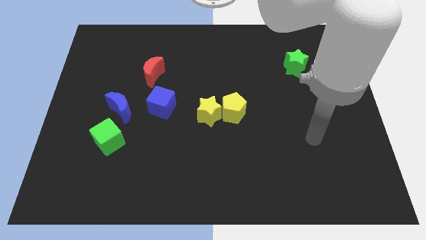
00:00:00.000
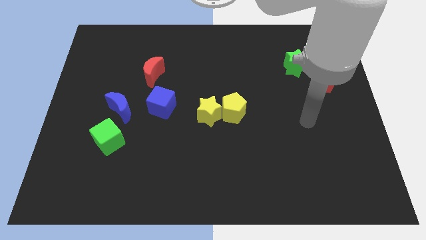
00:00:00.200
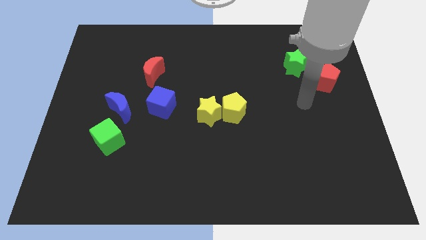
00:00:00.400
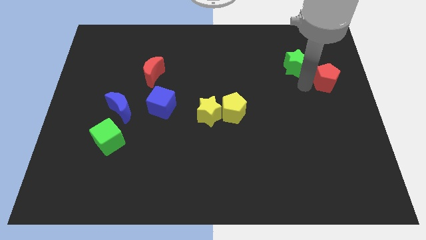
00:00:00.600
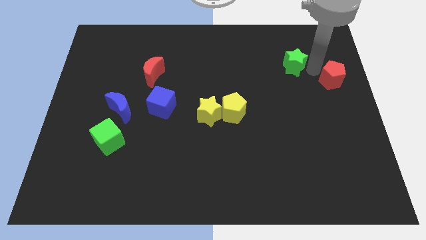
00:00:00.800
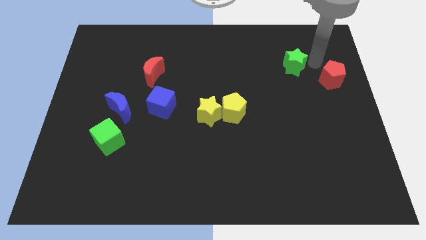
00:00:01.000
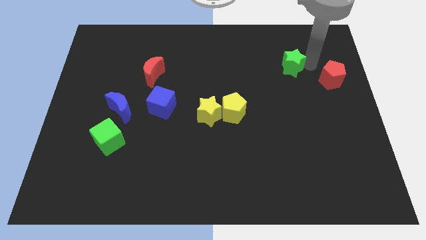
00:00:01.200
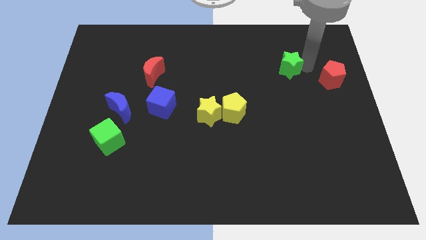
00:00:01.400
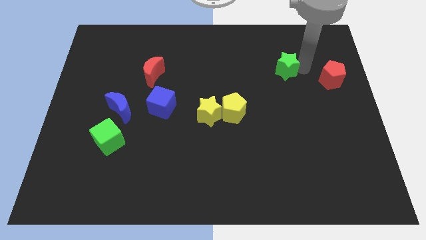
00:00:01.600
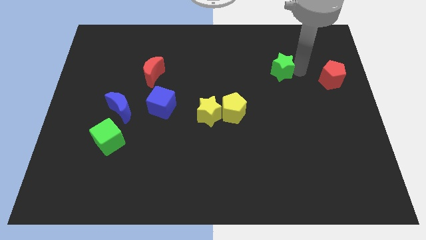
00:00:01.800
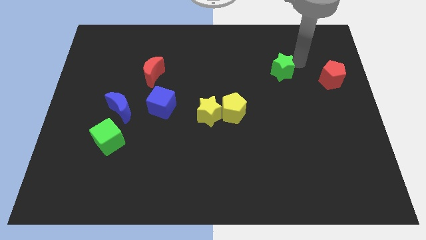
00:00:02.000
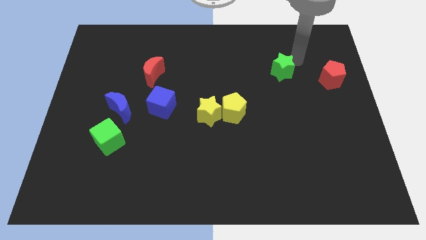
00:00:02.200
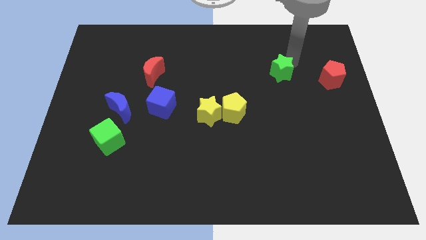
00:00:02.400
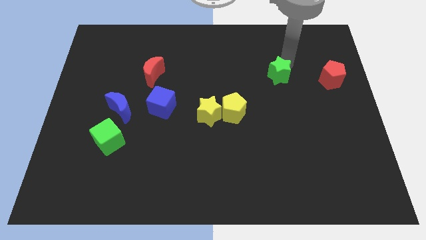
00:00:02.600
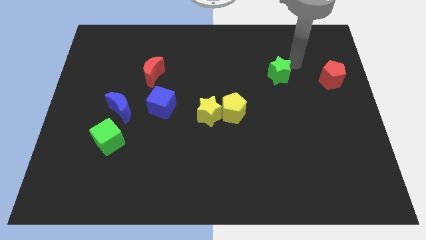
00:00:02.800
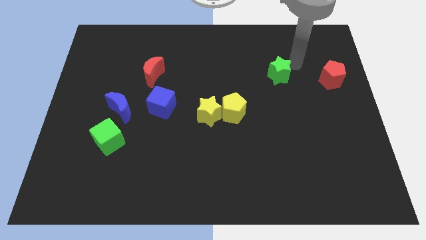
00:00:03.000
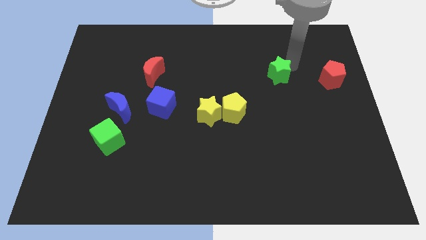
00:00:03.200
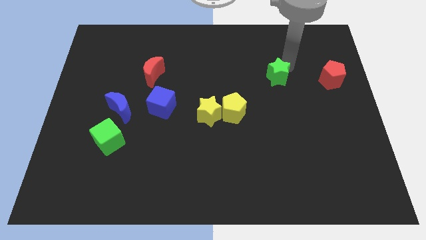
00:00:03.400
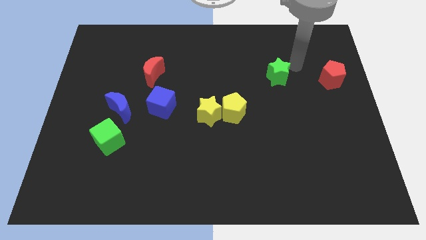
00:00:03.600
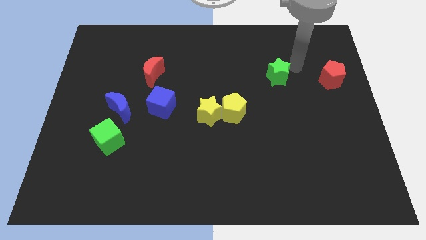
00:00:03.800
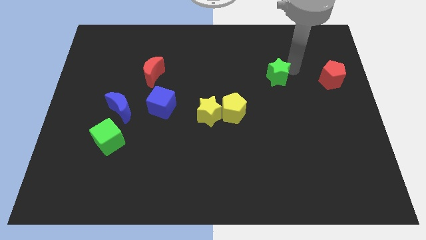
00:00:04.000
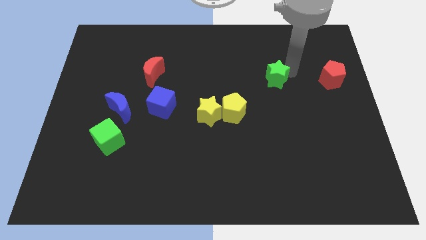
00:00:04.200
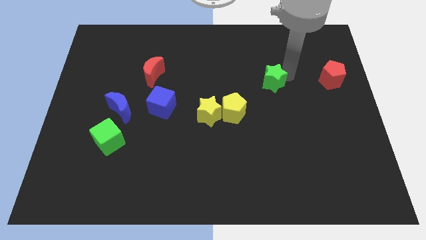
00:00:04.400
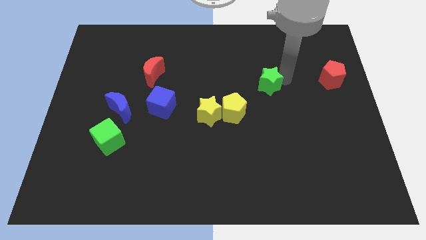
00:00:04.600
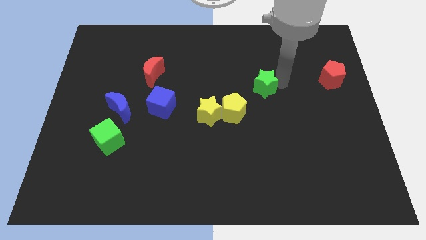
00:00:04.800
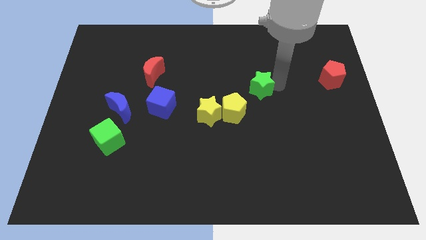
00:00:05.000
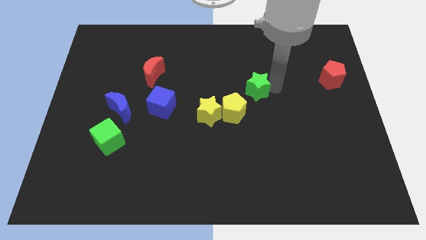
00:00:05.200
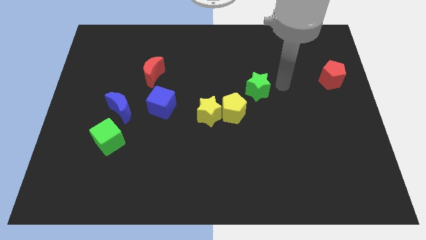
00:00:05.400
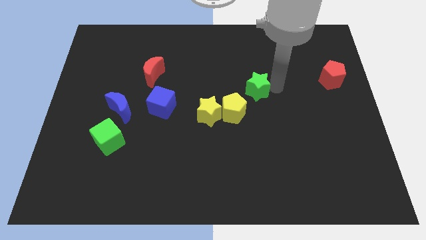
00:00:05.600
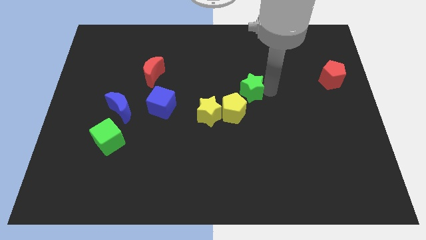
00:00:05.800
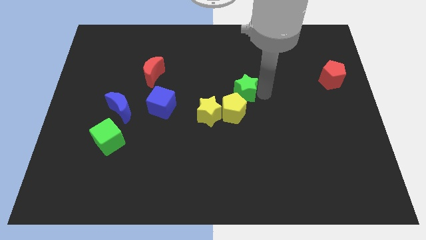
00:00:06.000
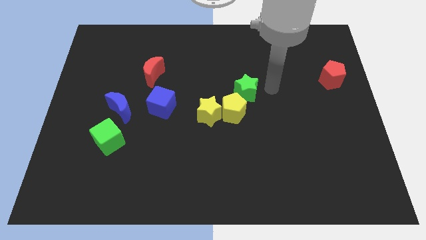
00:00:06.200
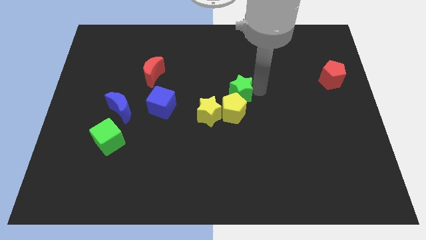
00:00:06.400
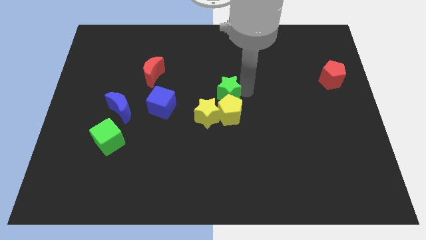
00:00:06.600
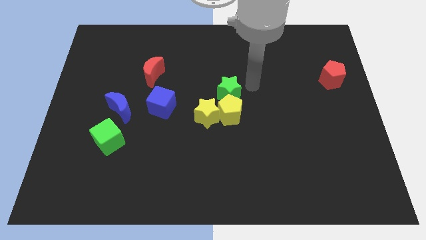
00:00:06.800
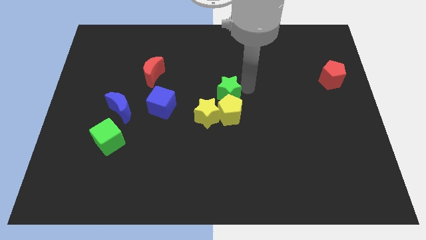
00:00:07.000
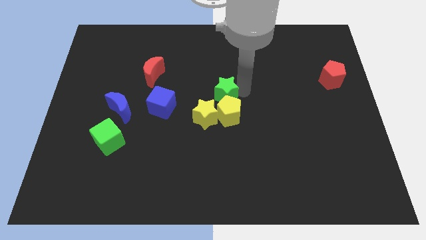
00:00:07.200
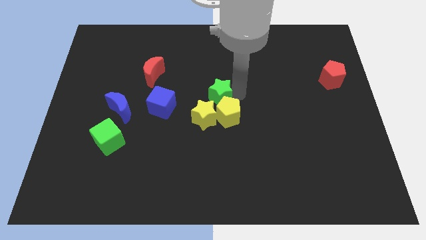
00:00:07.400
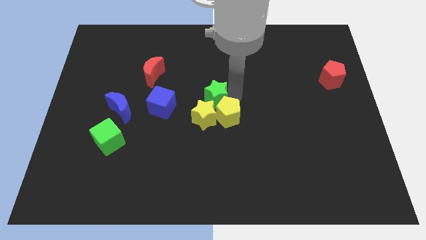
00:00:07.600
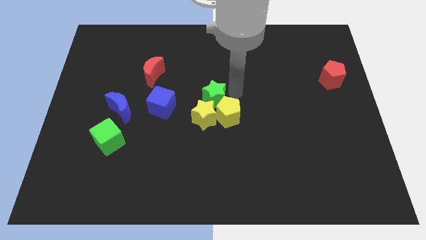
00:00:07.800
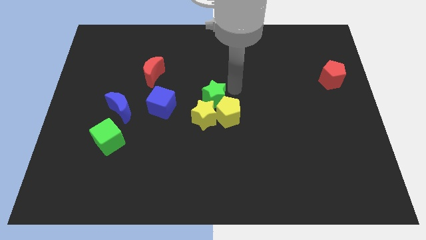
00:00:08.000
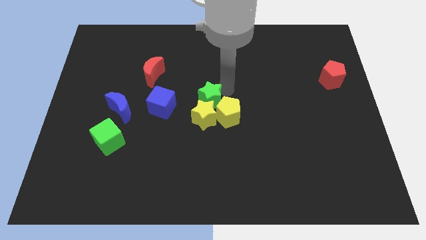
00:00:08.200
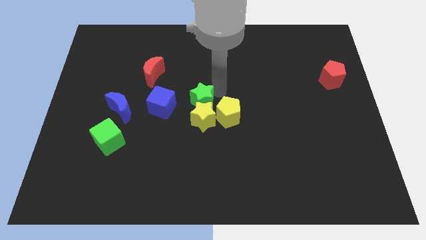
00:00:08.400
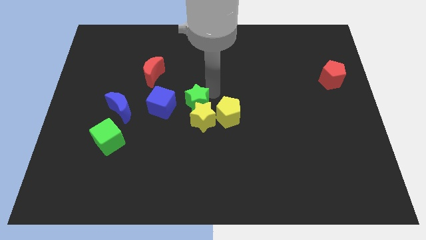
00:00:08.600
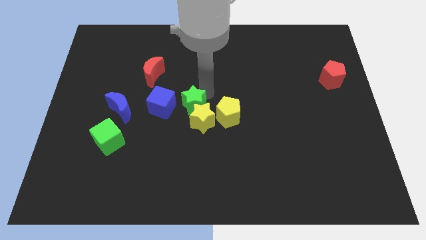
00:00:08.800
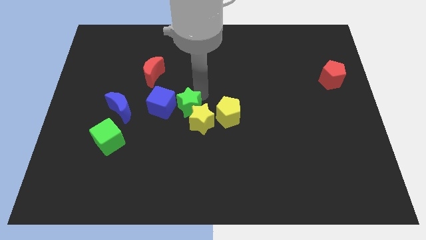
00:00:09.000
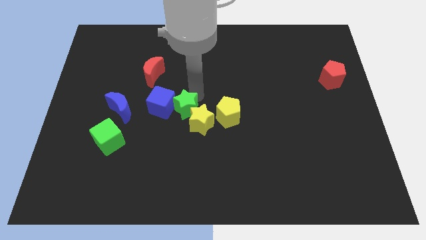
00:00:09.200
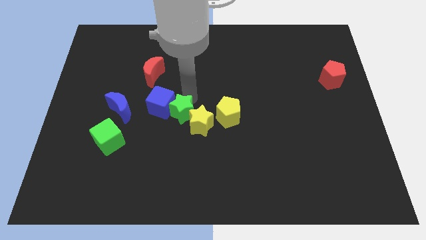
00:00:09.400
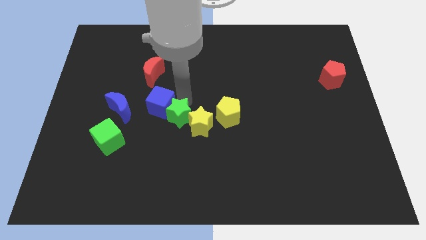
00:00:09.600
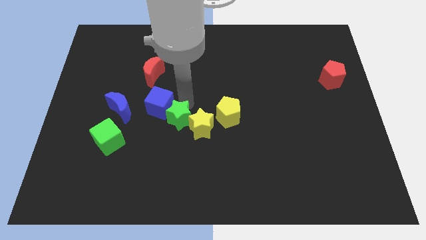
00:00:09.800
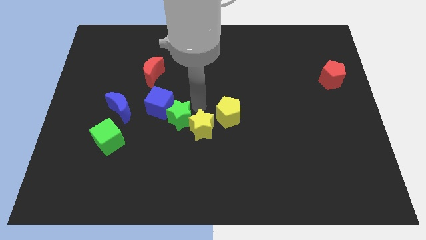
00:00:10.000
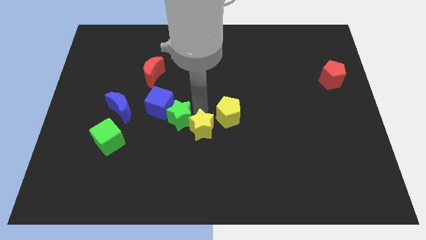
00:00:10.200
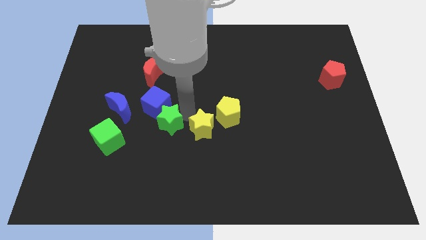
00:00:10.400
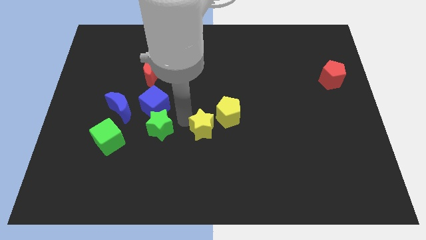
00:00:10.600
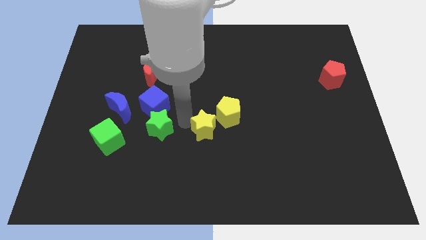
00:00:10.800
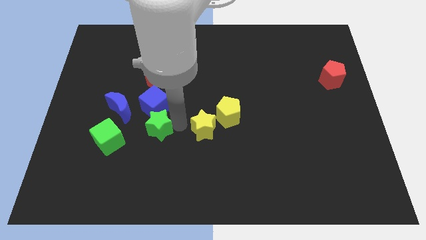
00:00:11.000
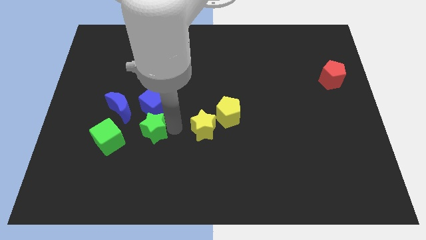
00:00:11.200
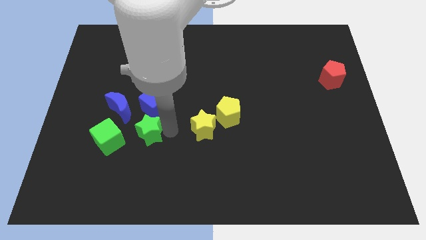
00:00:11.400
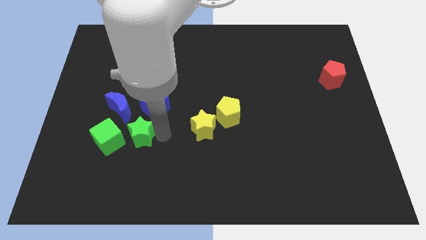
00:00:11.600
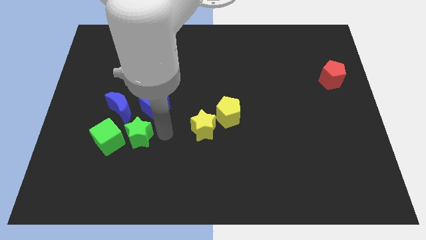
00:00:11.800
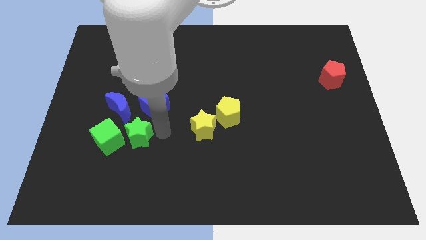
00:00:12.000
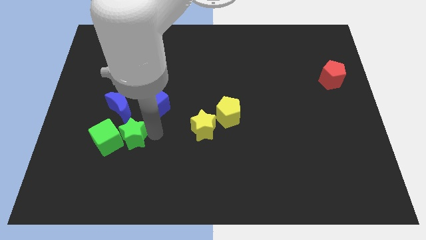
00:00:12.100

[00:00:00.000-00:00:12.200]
move the green star next to the green cube

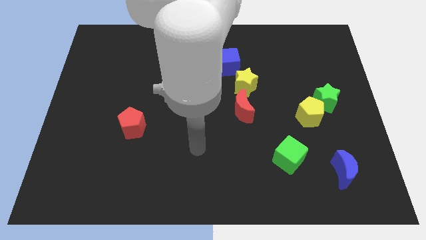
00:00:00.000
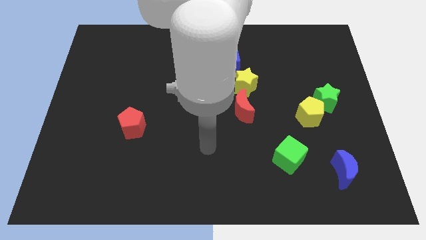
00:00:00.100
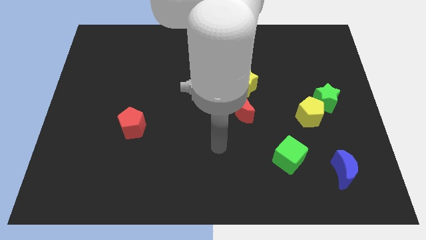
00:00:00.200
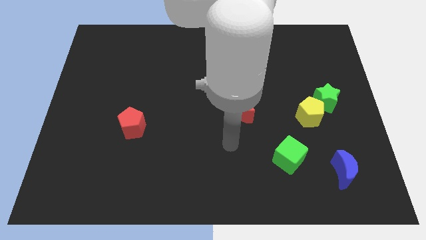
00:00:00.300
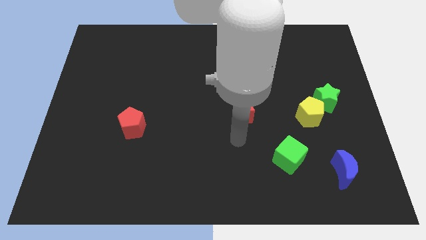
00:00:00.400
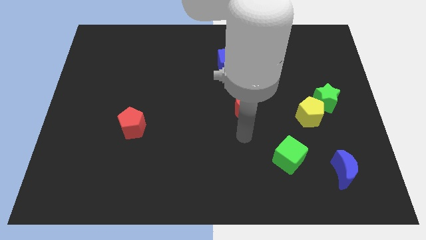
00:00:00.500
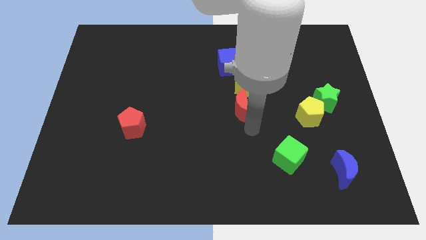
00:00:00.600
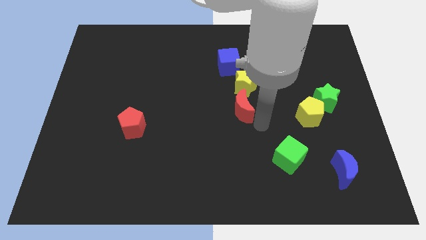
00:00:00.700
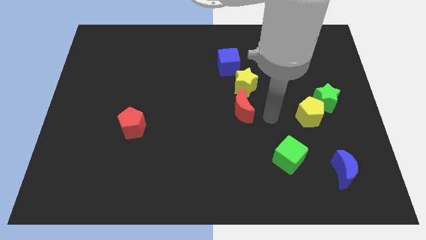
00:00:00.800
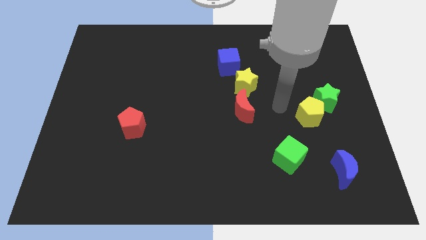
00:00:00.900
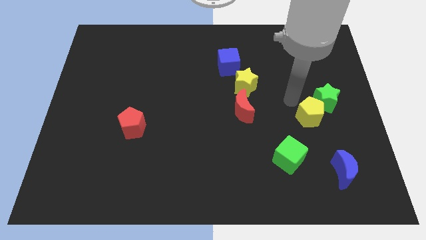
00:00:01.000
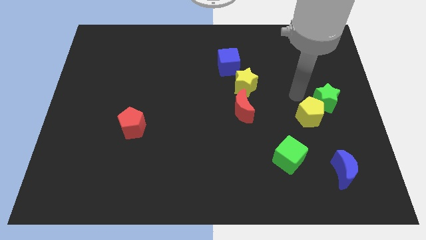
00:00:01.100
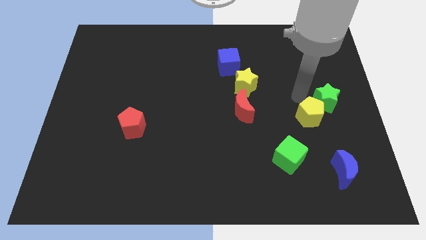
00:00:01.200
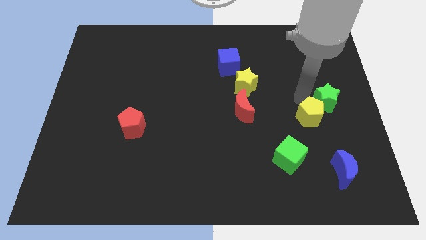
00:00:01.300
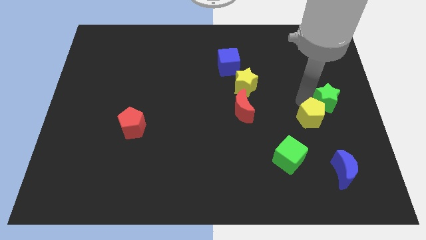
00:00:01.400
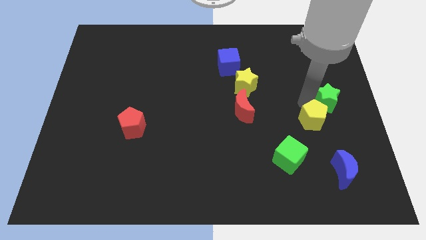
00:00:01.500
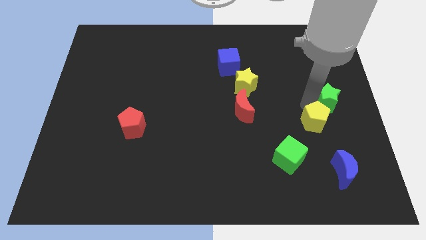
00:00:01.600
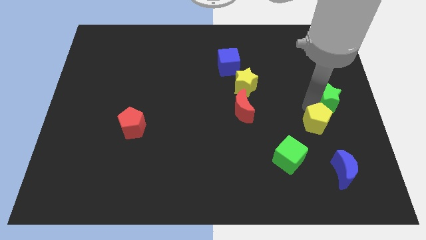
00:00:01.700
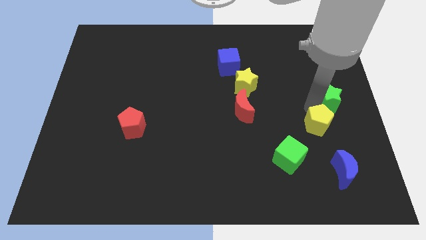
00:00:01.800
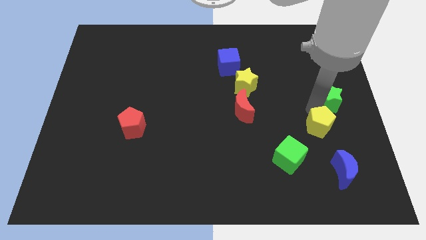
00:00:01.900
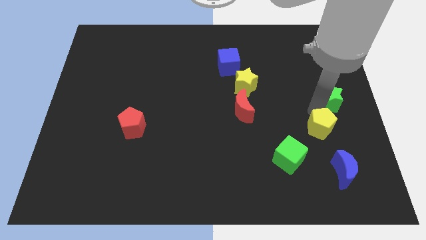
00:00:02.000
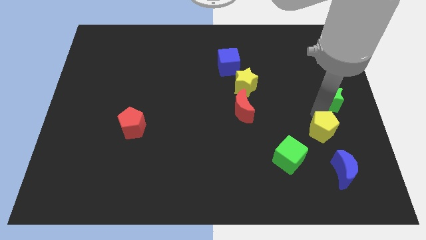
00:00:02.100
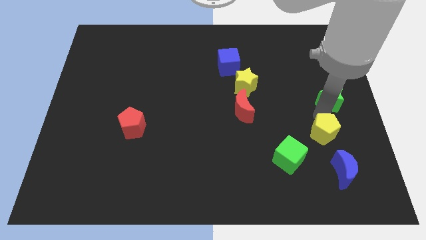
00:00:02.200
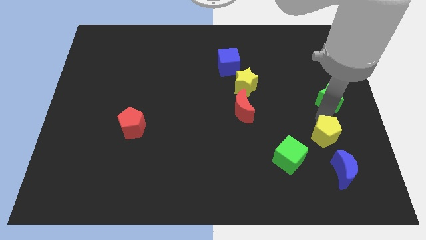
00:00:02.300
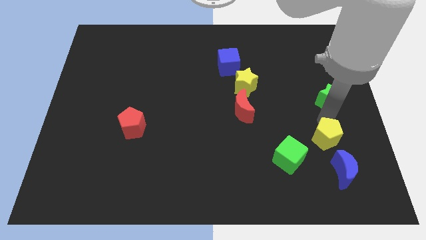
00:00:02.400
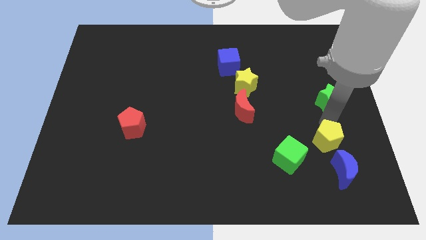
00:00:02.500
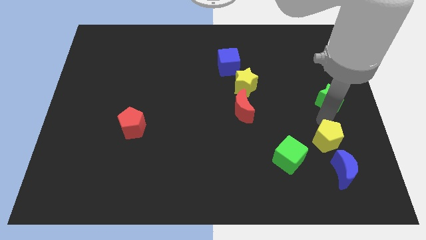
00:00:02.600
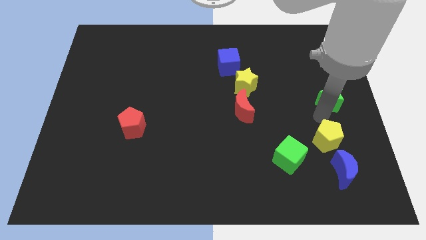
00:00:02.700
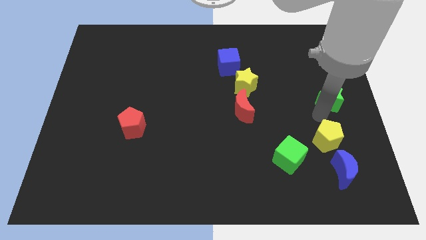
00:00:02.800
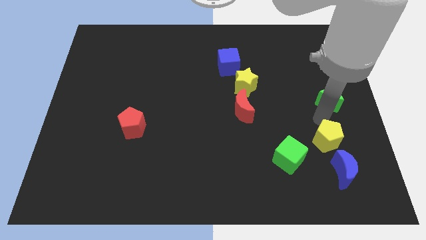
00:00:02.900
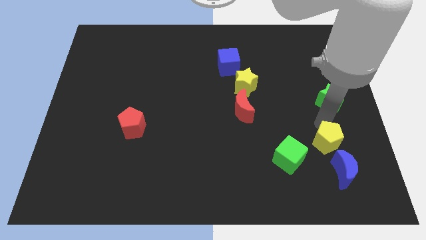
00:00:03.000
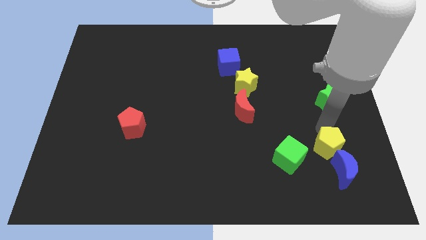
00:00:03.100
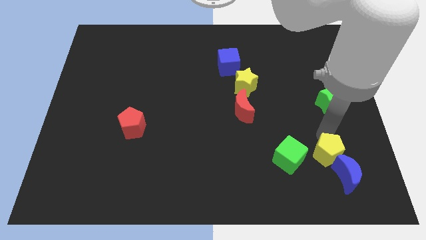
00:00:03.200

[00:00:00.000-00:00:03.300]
put the yellow pentagon close to the blue moon
